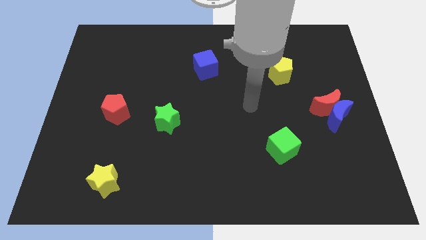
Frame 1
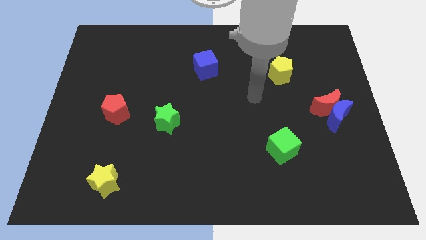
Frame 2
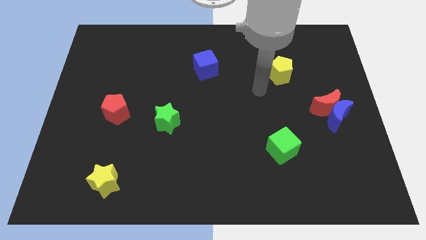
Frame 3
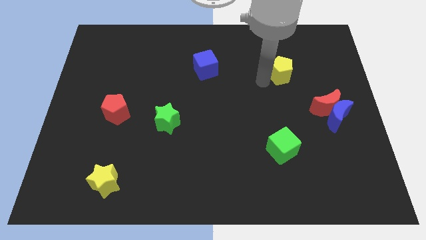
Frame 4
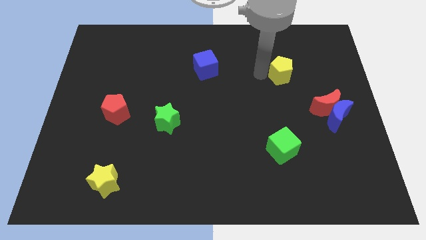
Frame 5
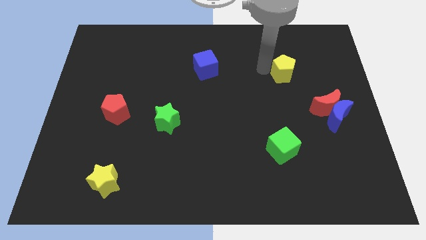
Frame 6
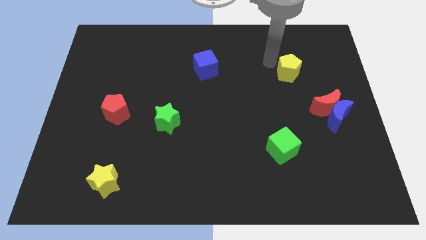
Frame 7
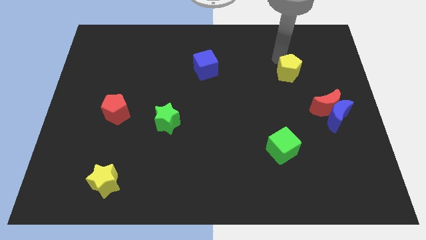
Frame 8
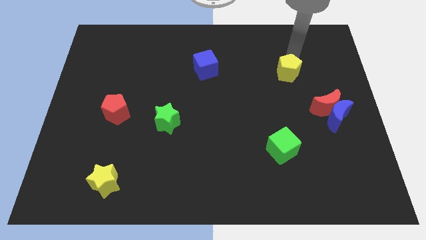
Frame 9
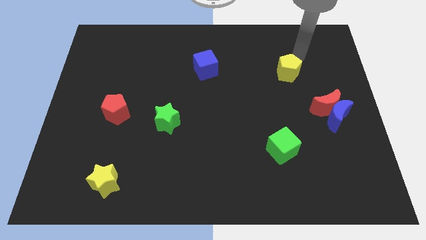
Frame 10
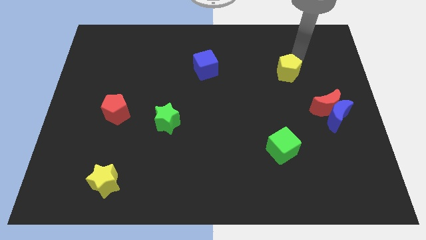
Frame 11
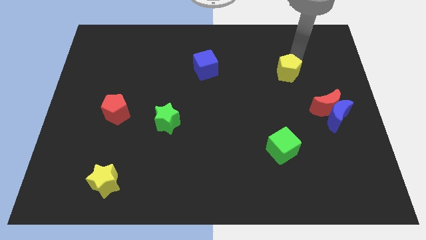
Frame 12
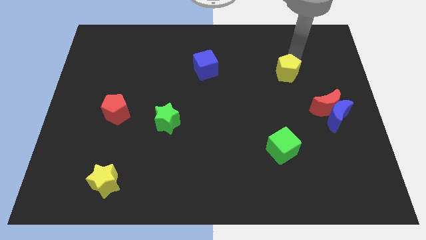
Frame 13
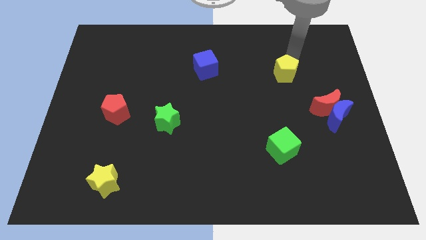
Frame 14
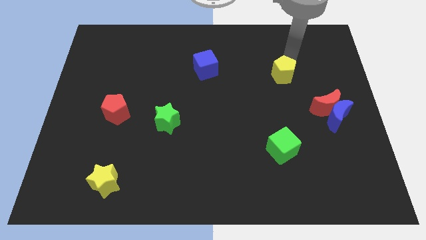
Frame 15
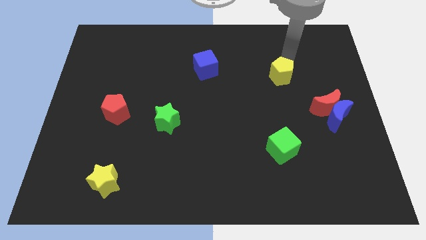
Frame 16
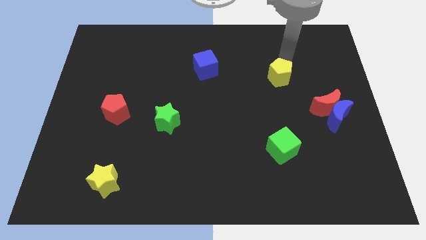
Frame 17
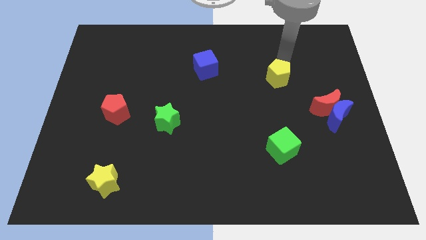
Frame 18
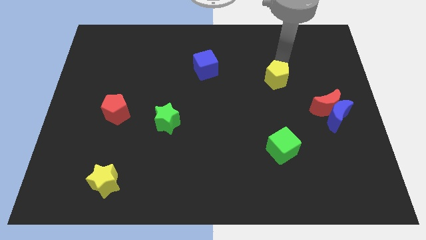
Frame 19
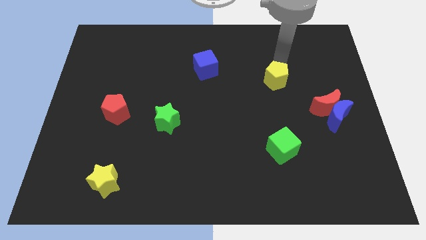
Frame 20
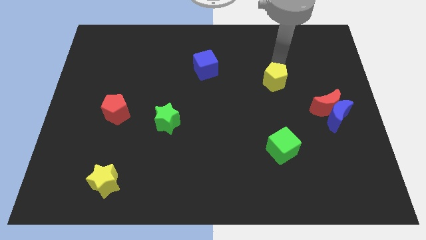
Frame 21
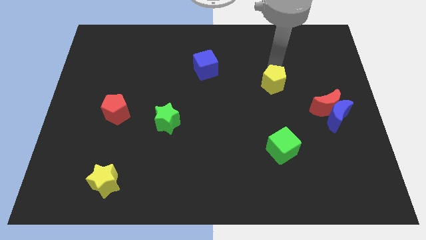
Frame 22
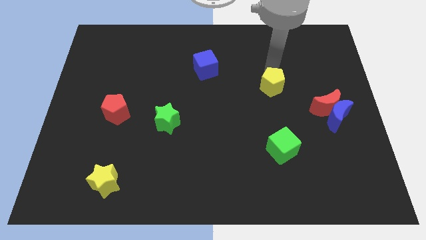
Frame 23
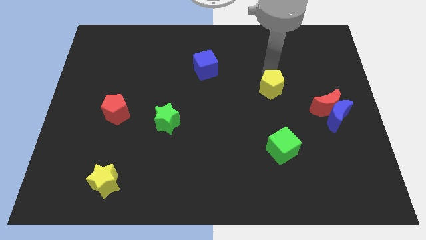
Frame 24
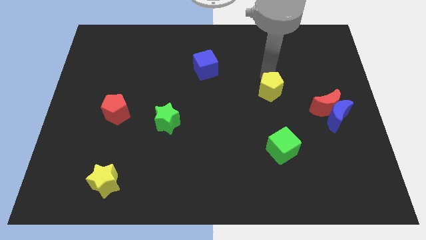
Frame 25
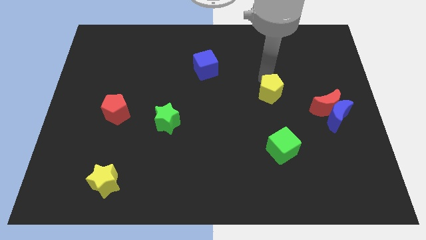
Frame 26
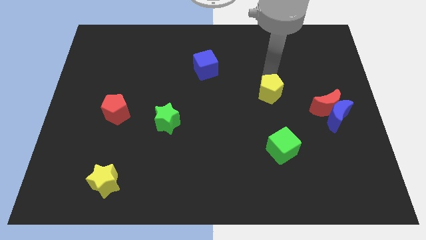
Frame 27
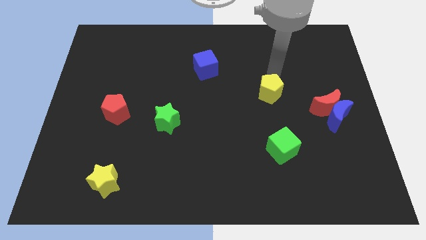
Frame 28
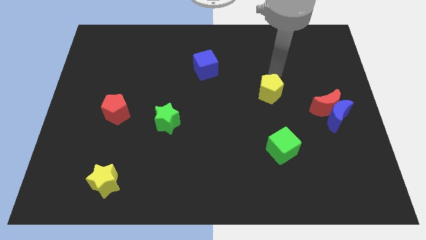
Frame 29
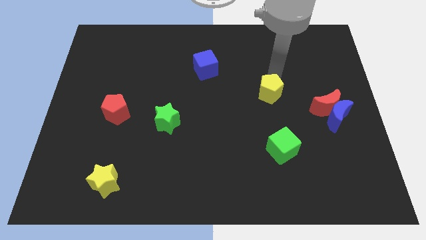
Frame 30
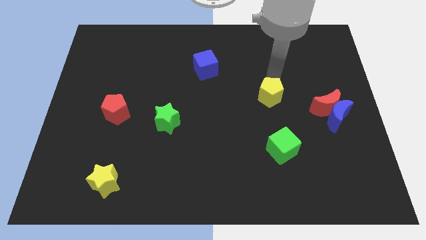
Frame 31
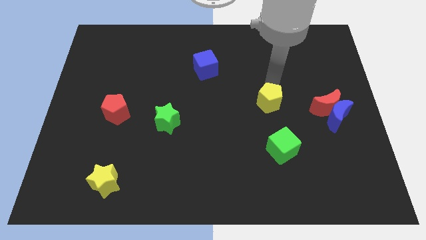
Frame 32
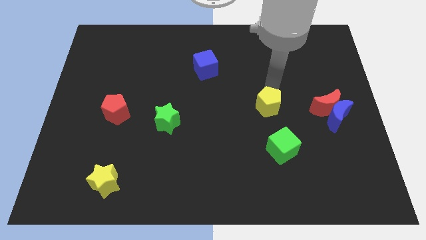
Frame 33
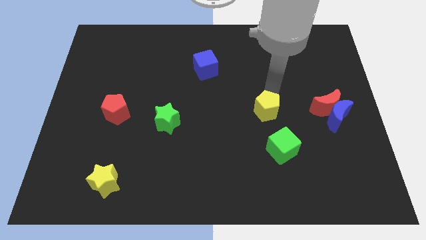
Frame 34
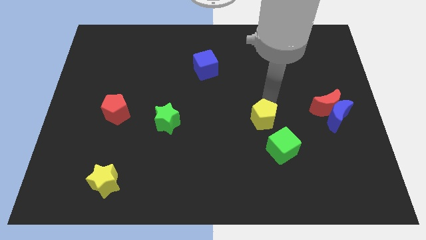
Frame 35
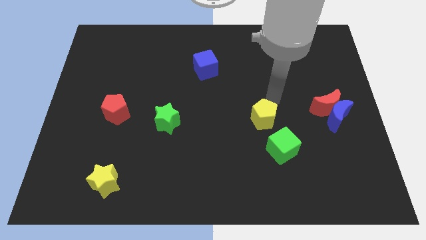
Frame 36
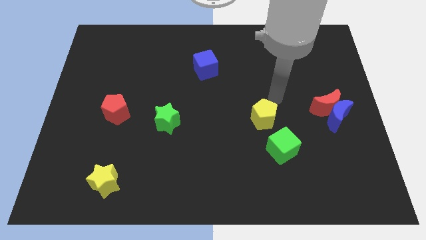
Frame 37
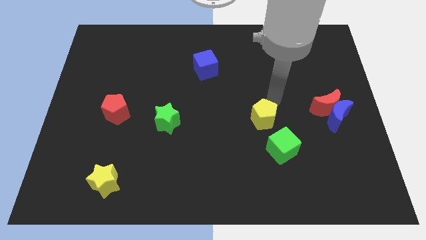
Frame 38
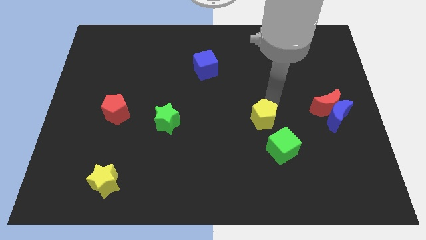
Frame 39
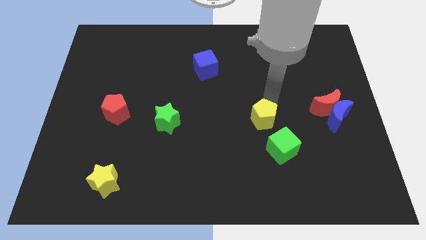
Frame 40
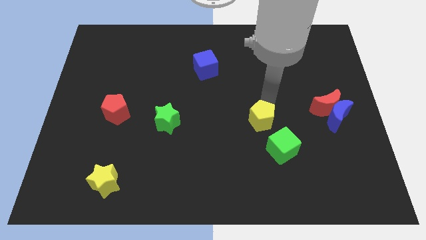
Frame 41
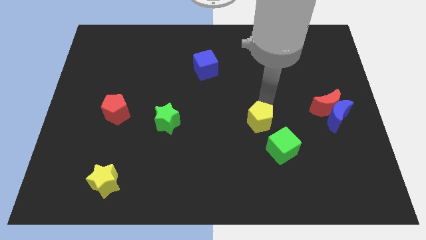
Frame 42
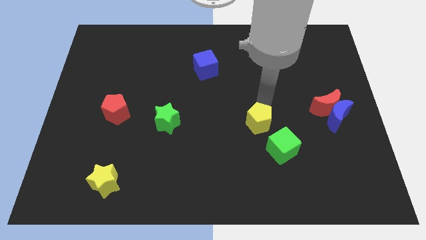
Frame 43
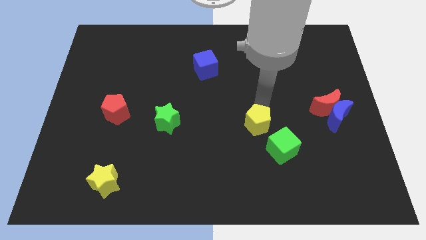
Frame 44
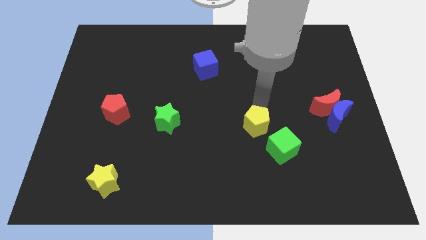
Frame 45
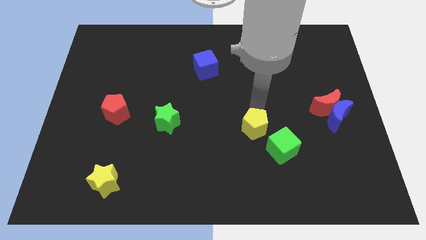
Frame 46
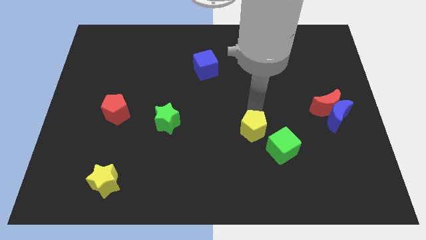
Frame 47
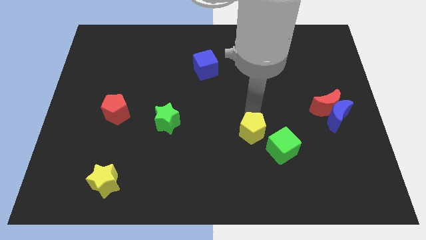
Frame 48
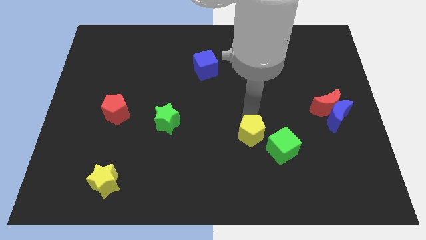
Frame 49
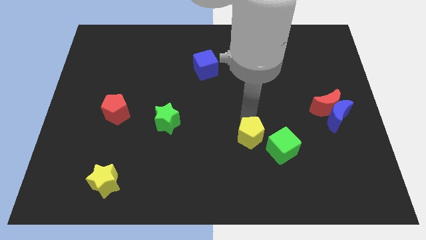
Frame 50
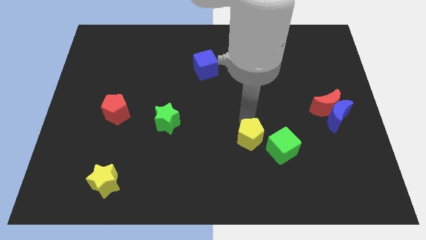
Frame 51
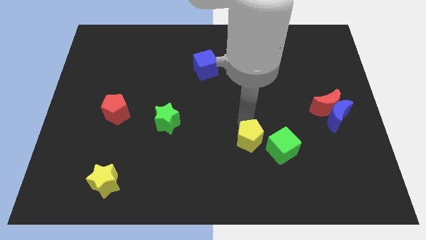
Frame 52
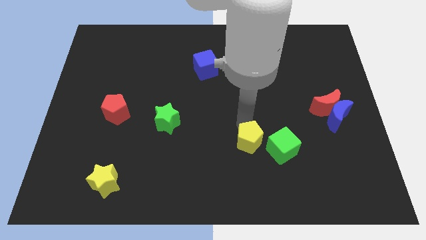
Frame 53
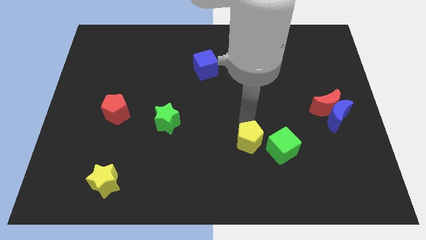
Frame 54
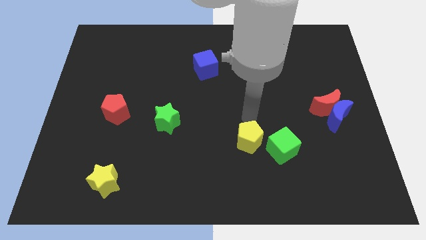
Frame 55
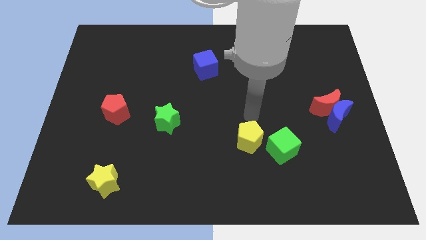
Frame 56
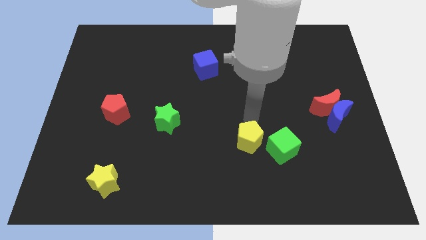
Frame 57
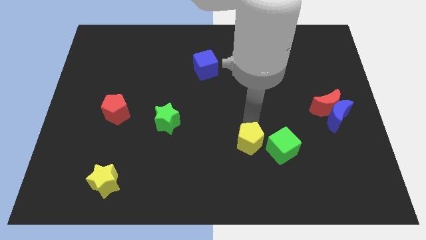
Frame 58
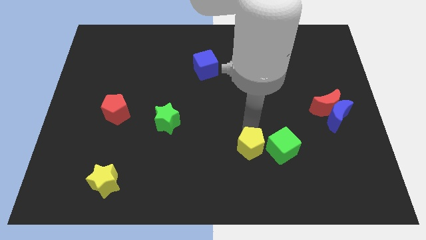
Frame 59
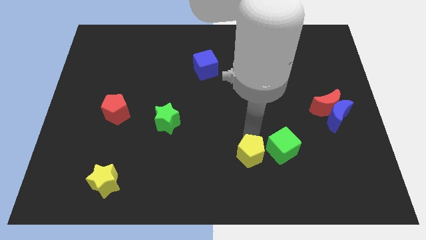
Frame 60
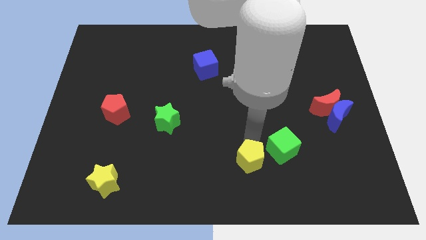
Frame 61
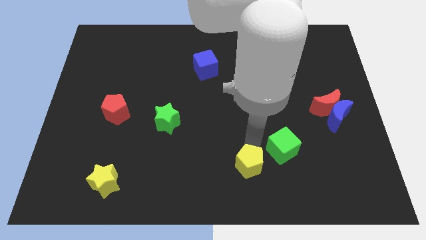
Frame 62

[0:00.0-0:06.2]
put the yellow pentagon to the bottom
